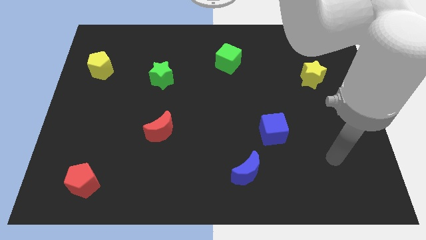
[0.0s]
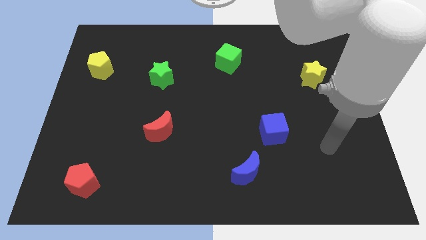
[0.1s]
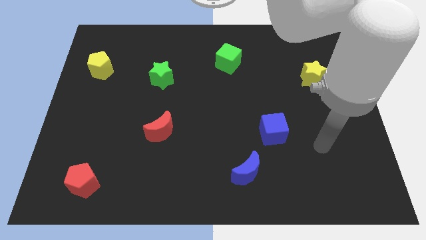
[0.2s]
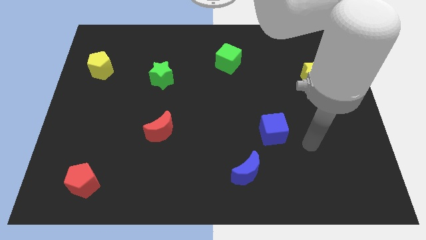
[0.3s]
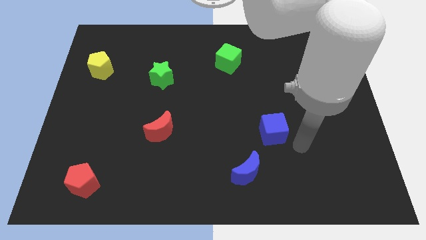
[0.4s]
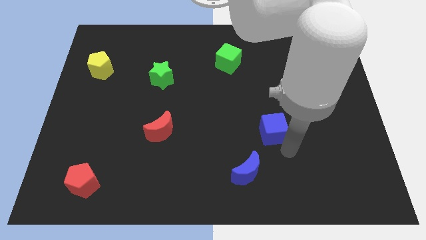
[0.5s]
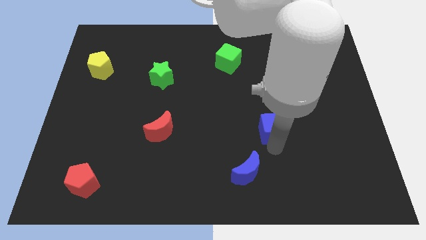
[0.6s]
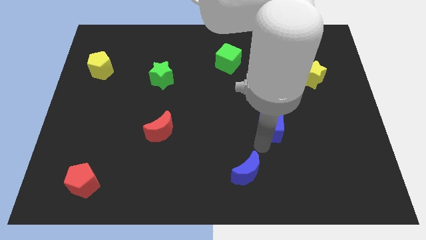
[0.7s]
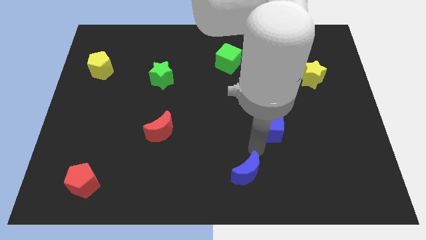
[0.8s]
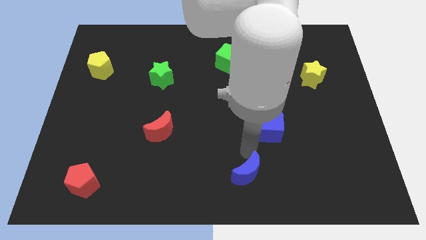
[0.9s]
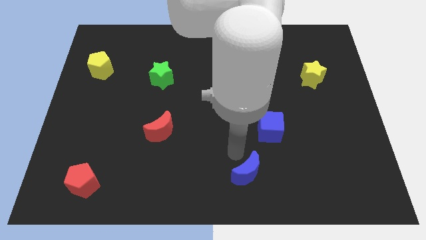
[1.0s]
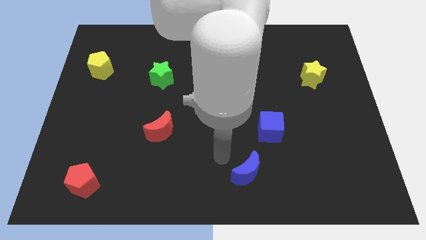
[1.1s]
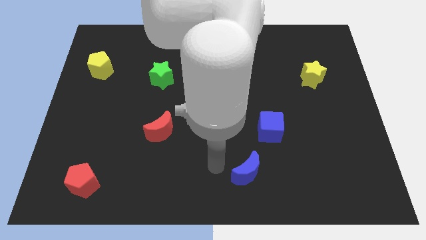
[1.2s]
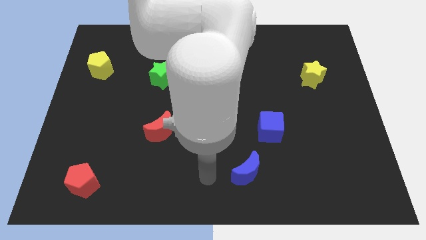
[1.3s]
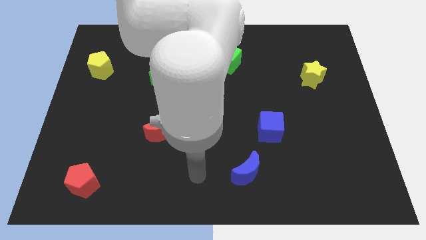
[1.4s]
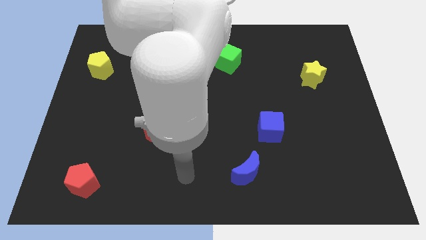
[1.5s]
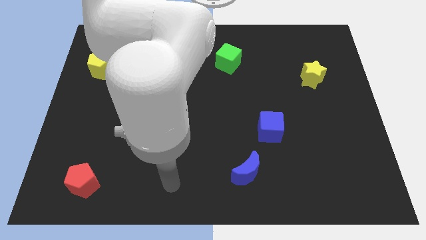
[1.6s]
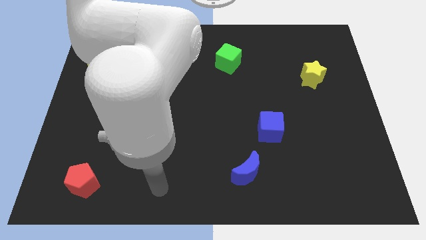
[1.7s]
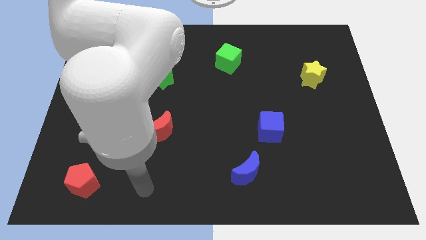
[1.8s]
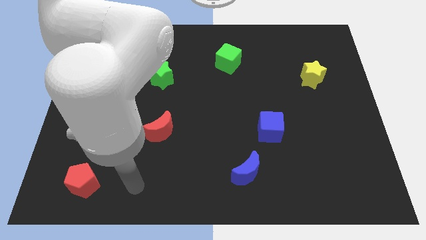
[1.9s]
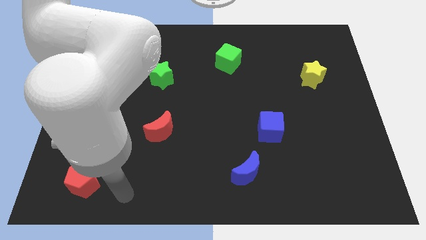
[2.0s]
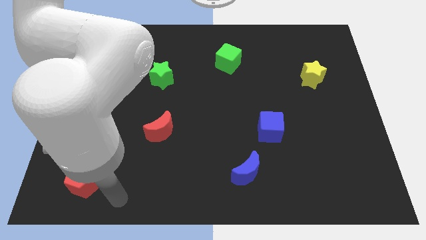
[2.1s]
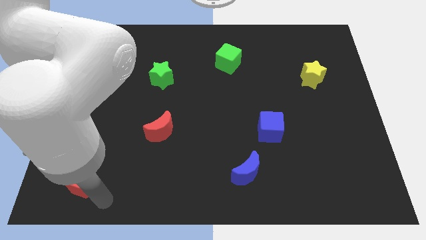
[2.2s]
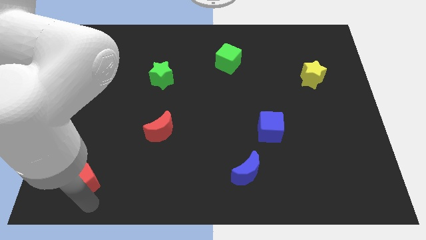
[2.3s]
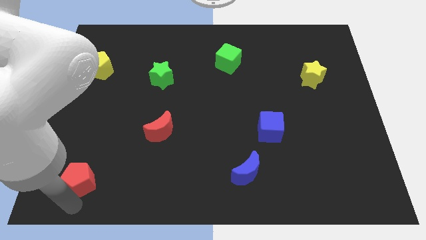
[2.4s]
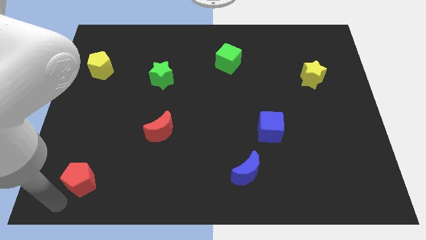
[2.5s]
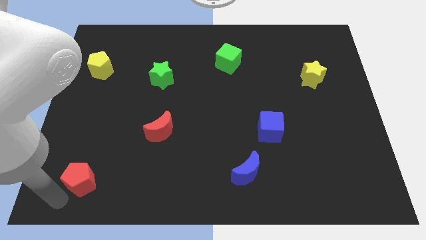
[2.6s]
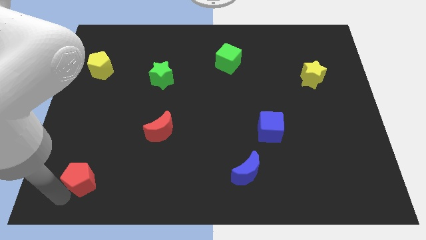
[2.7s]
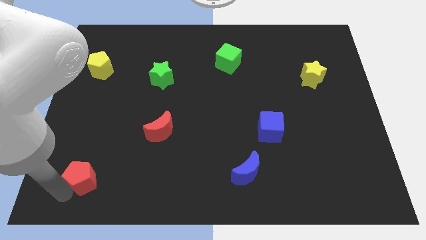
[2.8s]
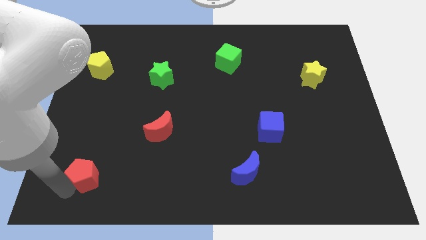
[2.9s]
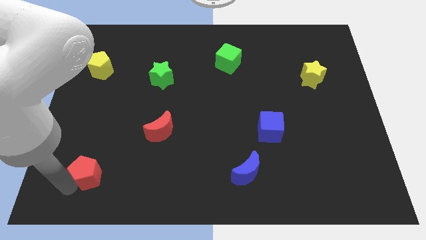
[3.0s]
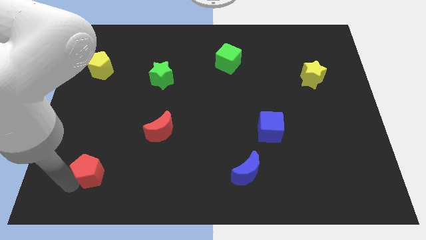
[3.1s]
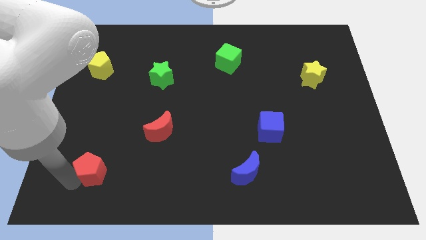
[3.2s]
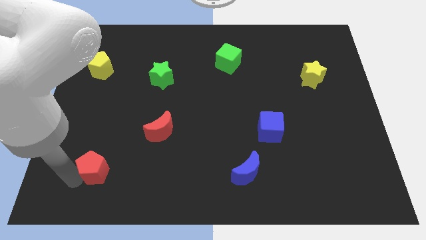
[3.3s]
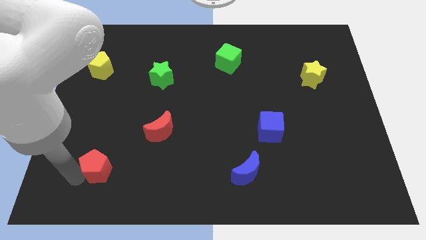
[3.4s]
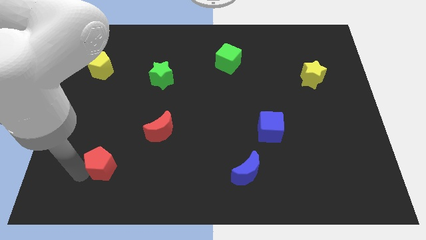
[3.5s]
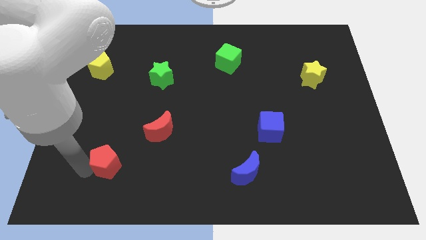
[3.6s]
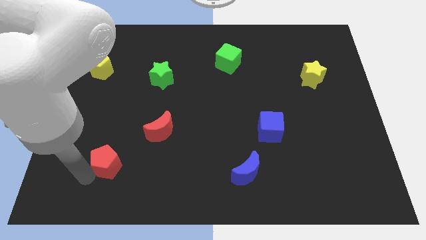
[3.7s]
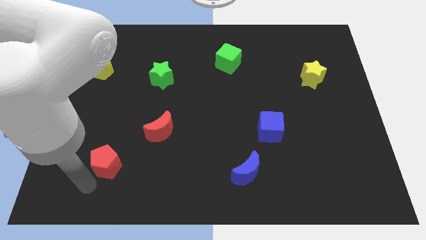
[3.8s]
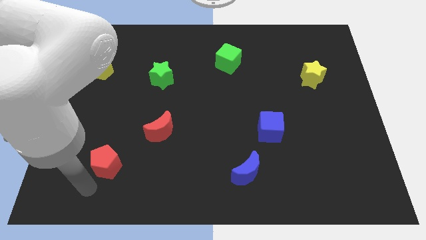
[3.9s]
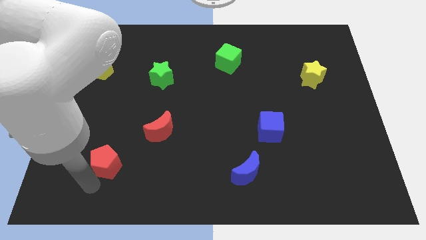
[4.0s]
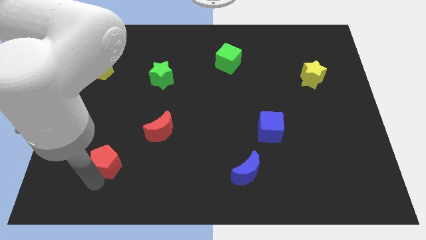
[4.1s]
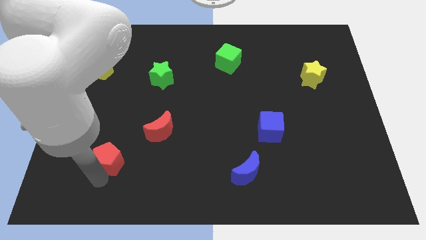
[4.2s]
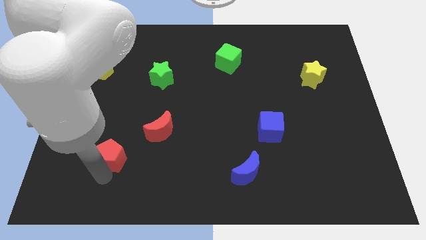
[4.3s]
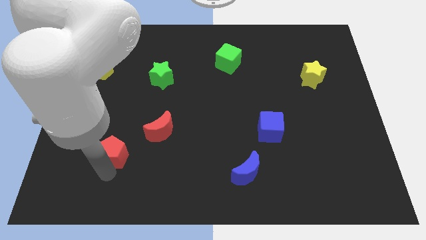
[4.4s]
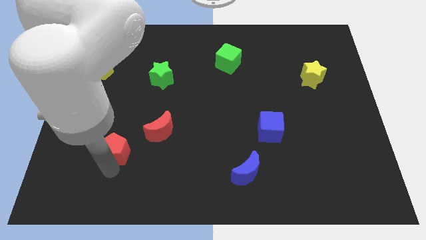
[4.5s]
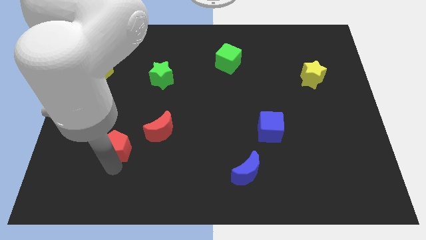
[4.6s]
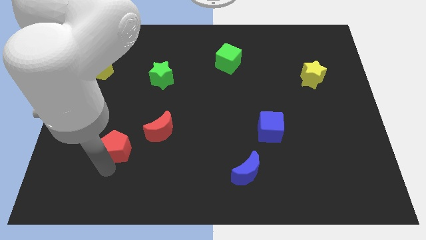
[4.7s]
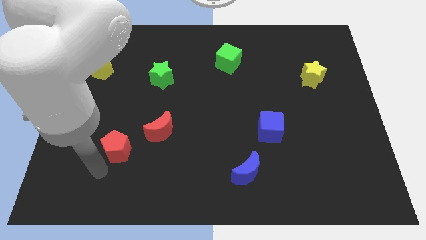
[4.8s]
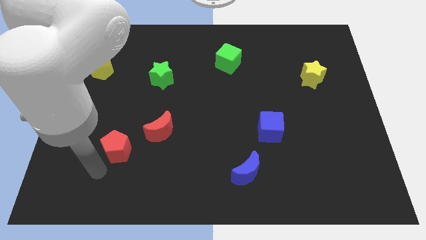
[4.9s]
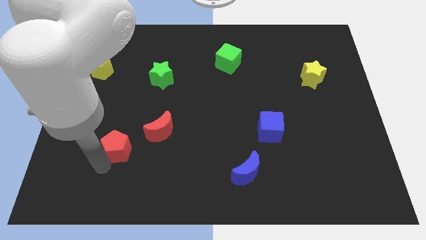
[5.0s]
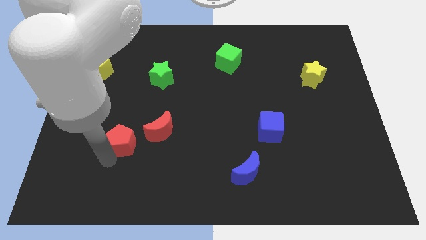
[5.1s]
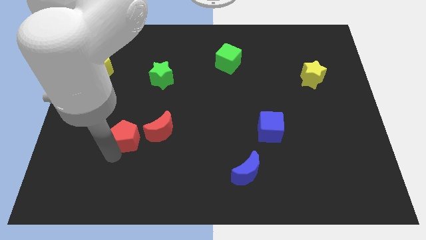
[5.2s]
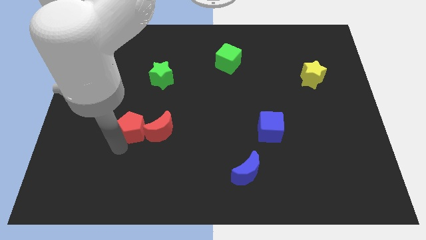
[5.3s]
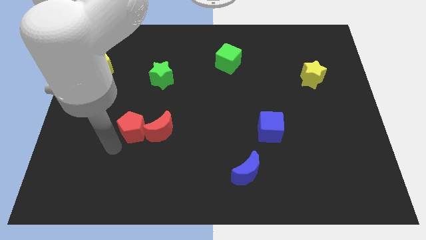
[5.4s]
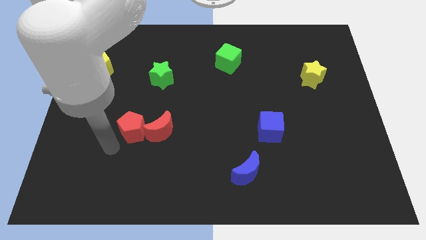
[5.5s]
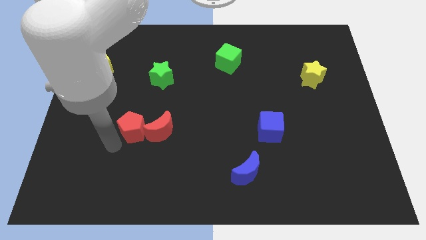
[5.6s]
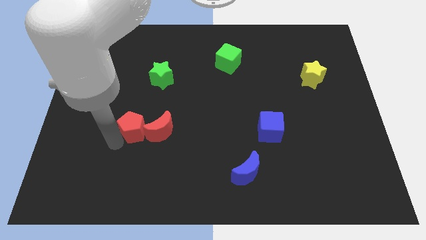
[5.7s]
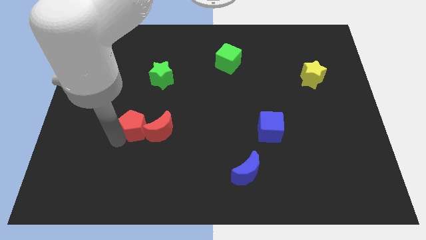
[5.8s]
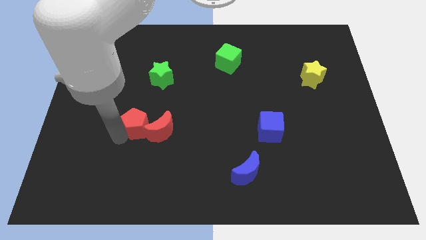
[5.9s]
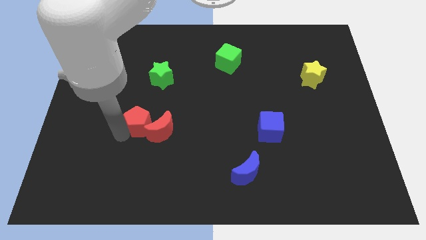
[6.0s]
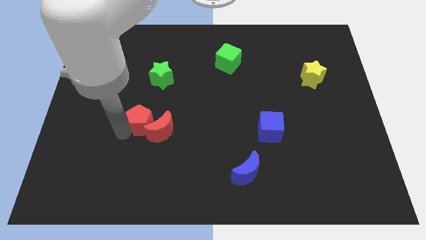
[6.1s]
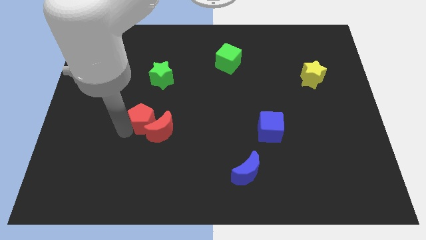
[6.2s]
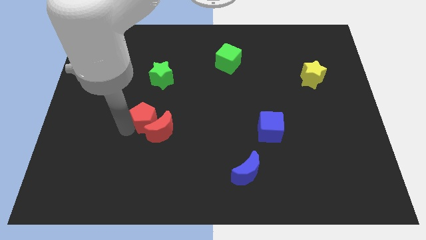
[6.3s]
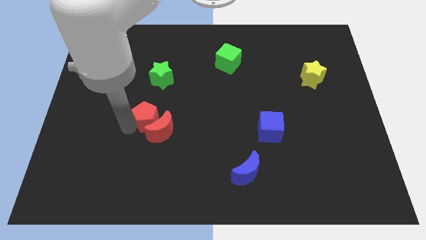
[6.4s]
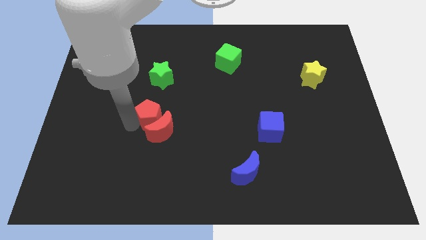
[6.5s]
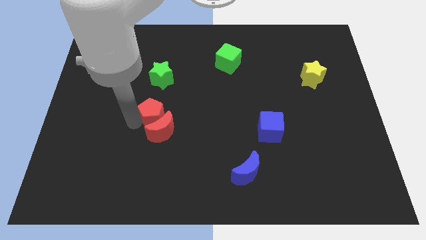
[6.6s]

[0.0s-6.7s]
push the red pentagon up and to the right diagonally

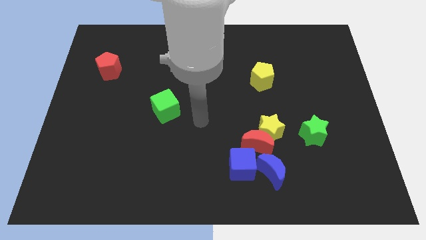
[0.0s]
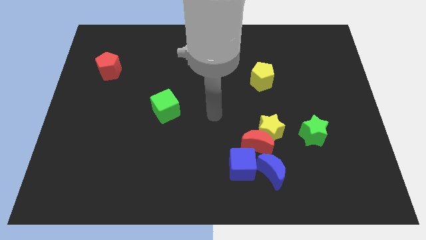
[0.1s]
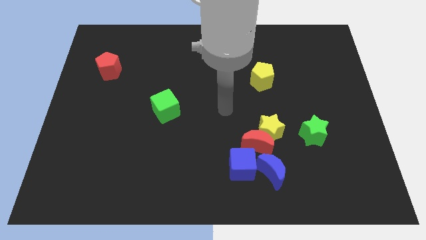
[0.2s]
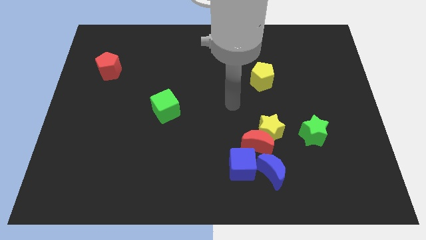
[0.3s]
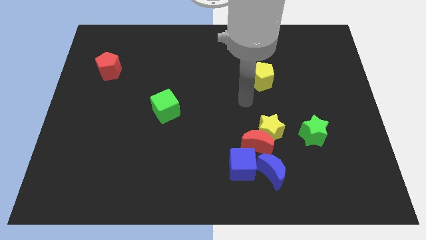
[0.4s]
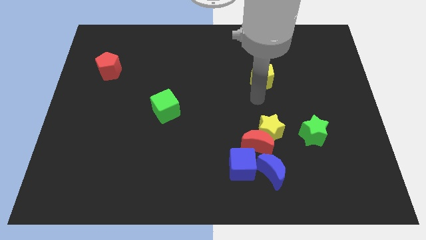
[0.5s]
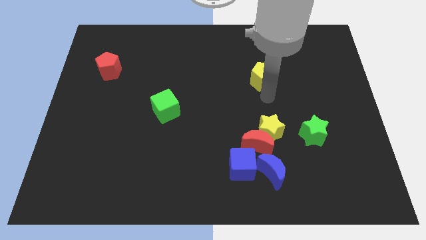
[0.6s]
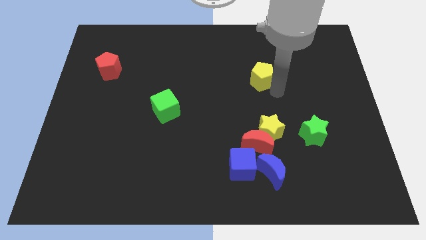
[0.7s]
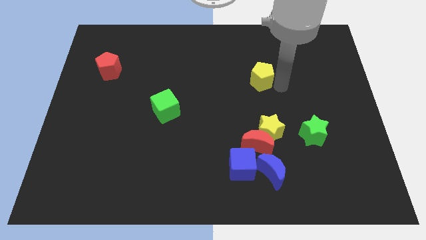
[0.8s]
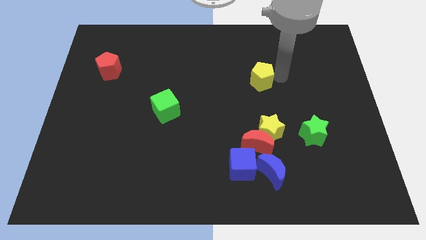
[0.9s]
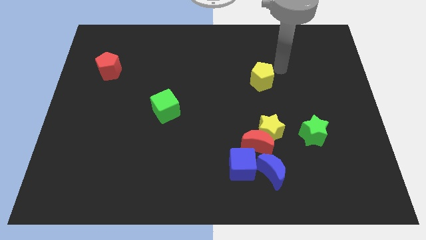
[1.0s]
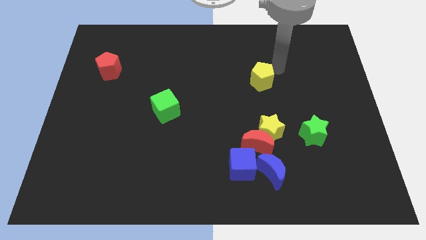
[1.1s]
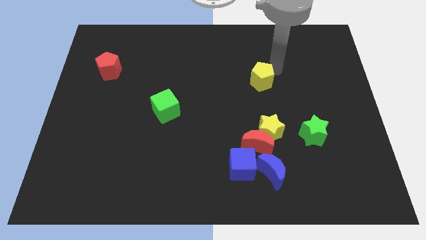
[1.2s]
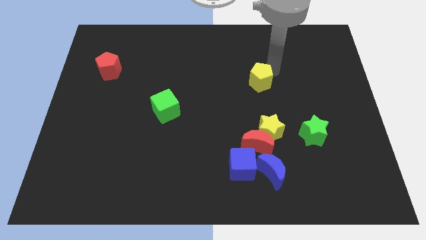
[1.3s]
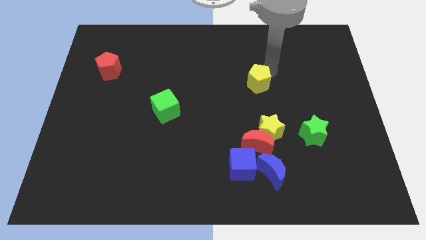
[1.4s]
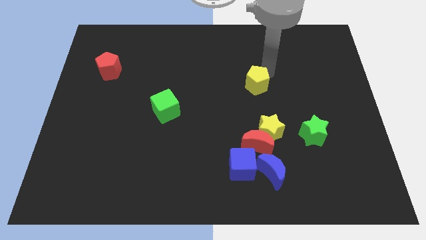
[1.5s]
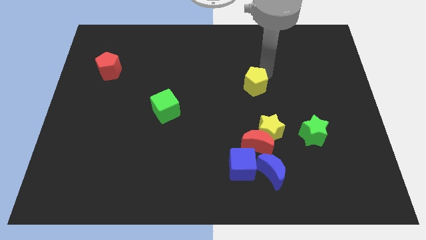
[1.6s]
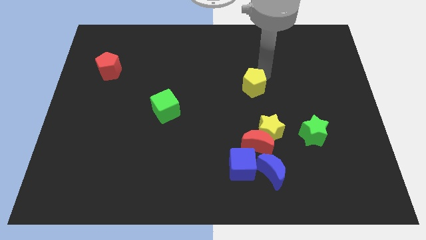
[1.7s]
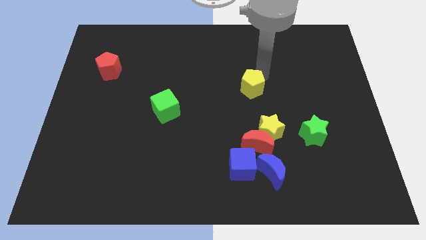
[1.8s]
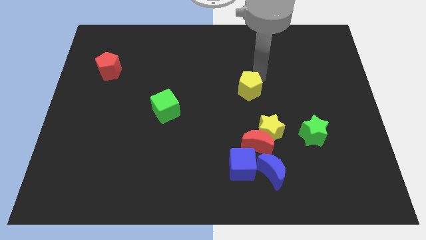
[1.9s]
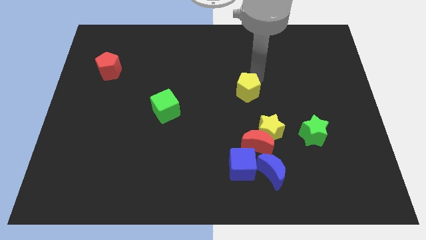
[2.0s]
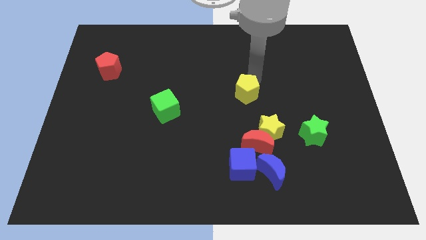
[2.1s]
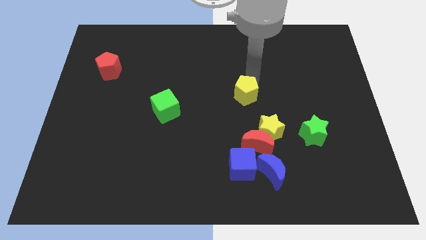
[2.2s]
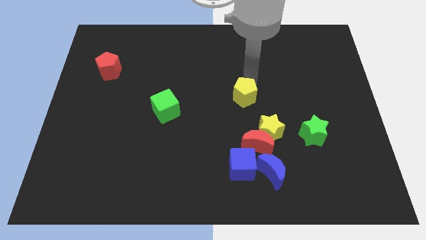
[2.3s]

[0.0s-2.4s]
slide the yellow pentagon down and to the left diagonally a little bit
